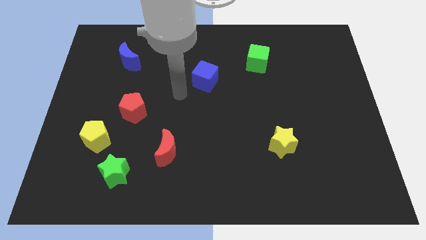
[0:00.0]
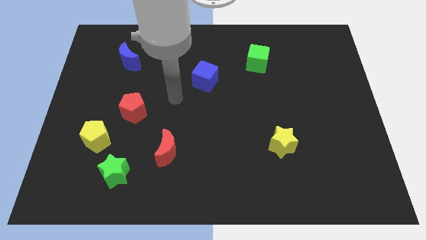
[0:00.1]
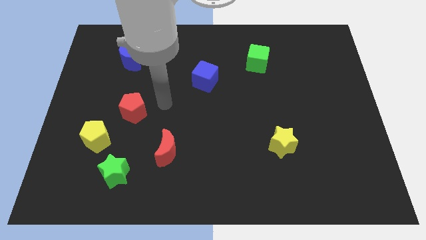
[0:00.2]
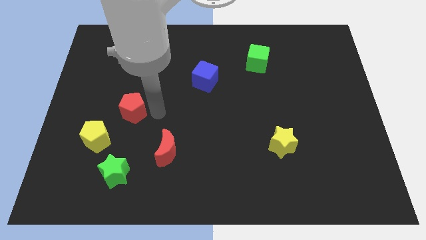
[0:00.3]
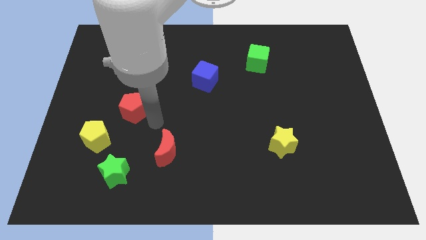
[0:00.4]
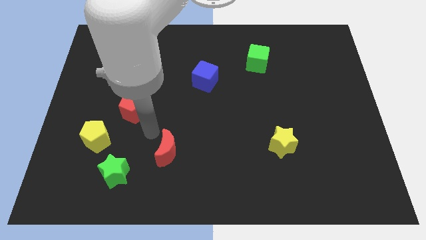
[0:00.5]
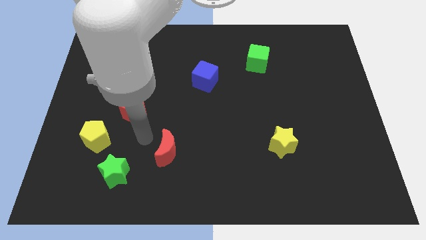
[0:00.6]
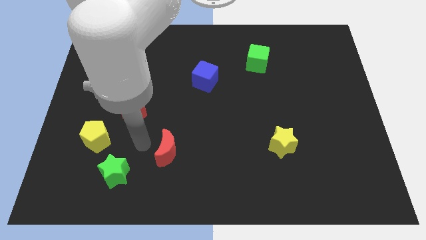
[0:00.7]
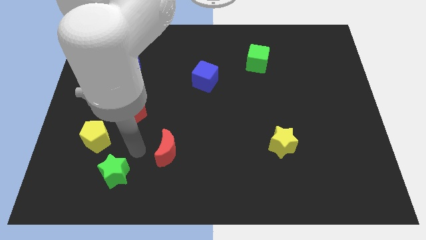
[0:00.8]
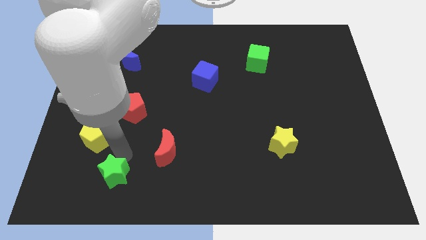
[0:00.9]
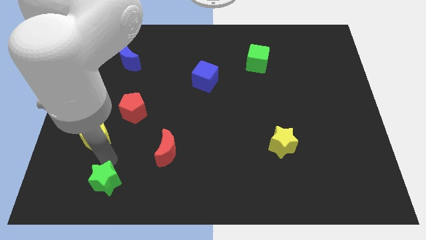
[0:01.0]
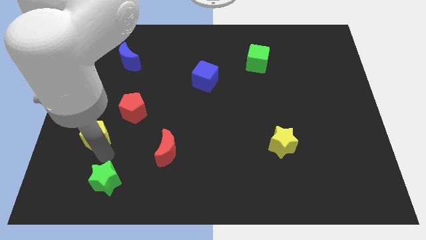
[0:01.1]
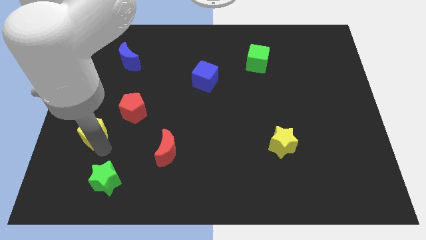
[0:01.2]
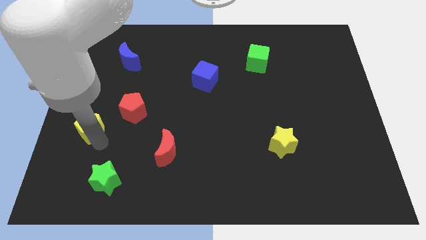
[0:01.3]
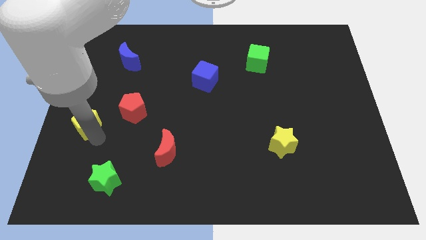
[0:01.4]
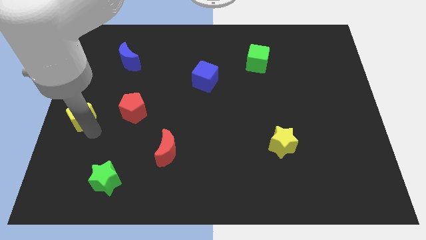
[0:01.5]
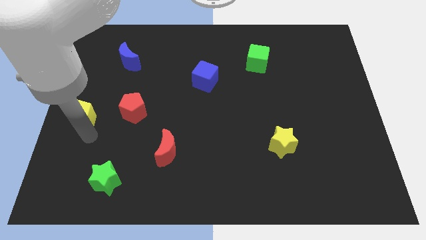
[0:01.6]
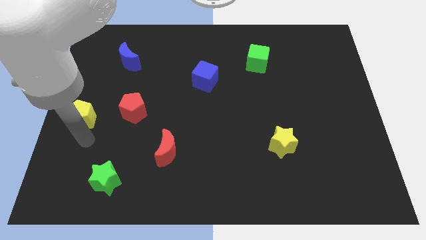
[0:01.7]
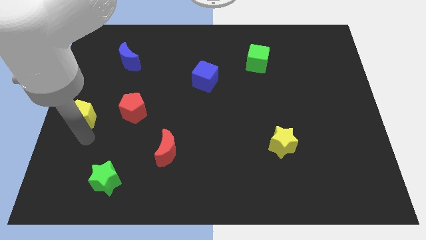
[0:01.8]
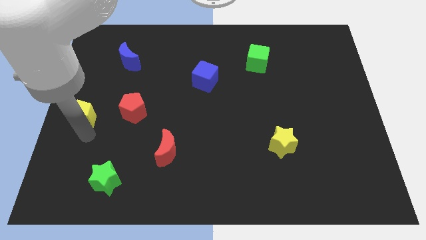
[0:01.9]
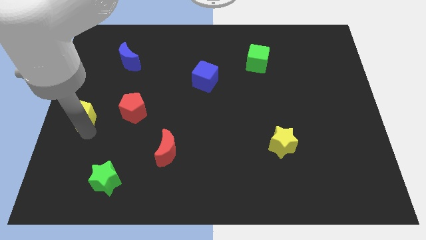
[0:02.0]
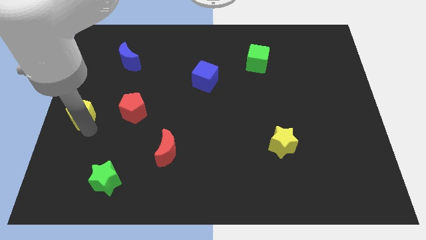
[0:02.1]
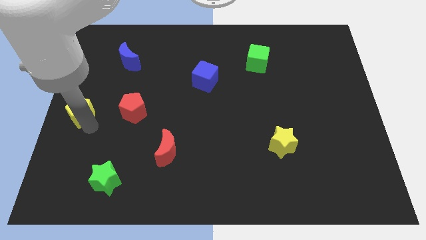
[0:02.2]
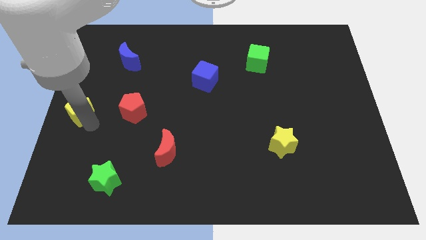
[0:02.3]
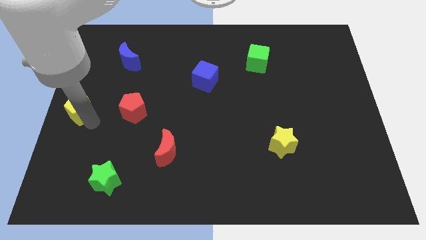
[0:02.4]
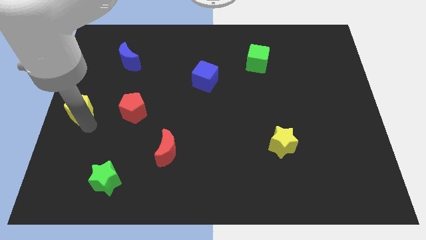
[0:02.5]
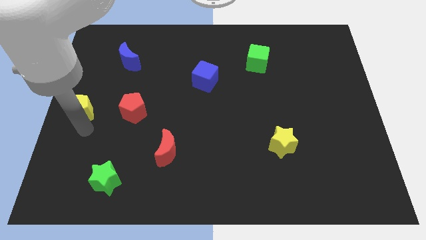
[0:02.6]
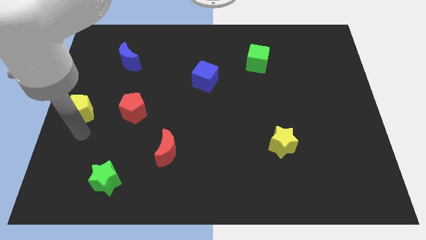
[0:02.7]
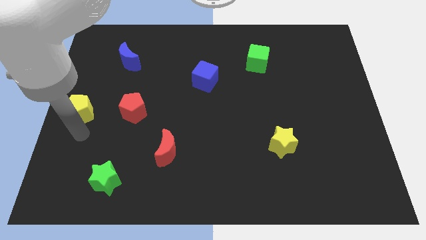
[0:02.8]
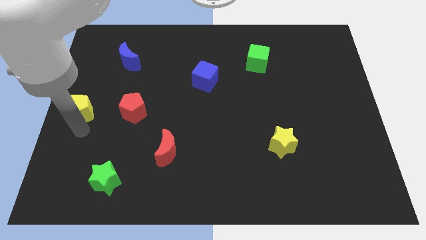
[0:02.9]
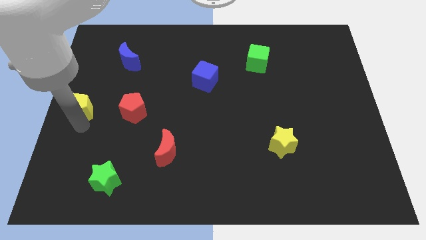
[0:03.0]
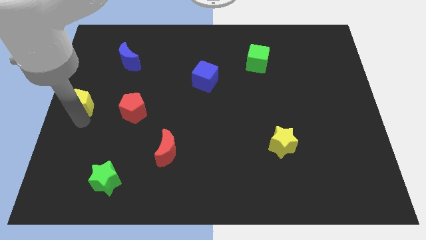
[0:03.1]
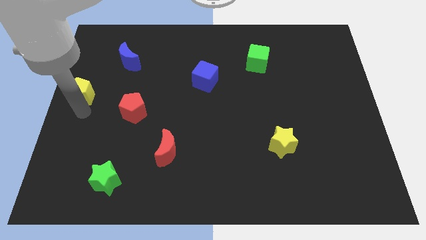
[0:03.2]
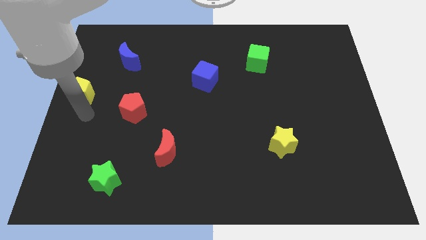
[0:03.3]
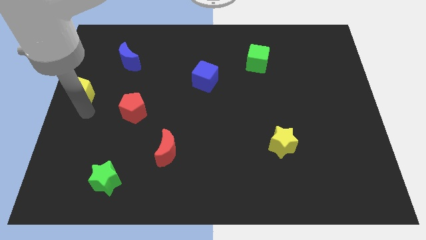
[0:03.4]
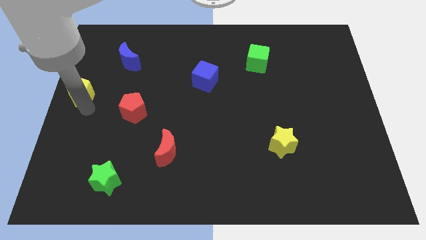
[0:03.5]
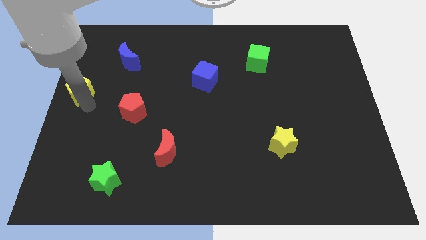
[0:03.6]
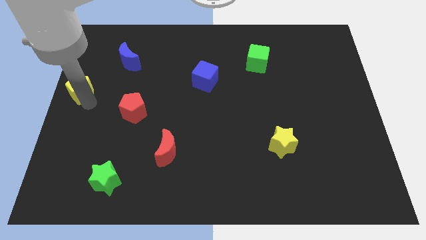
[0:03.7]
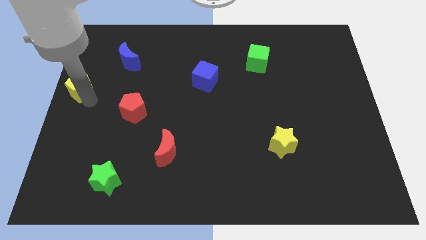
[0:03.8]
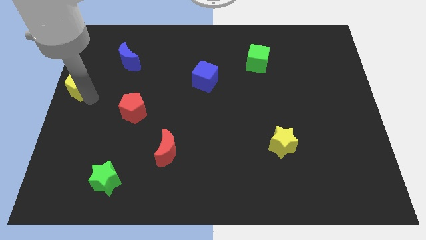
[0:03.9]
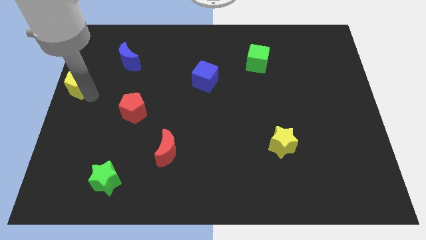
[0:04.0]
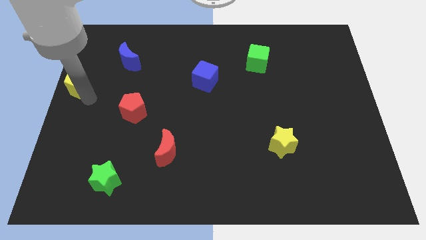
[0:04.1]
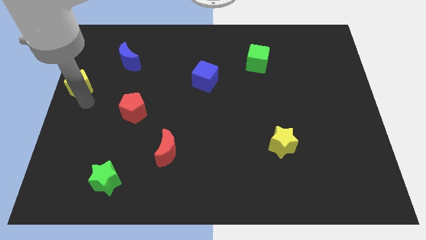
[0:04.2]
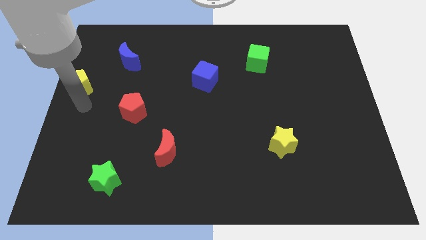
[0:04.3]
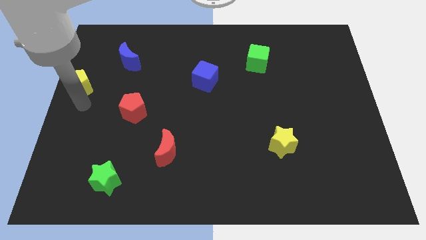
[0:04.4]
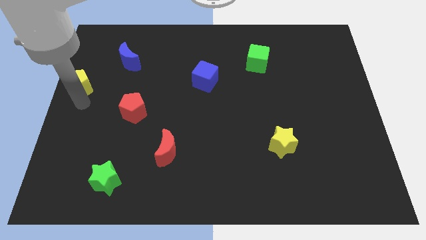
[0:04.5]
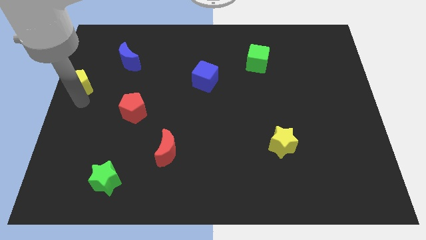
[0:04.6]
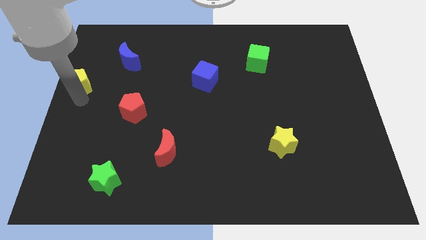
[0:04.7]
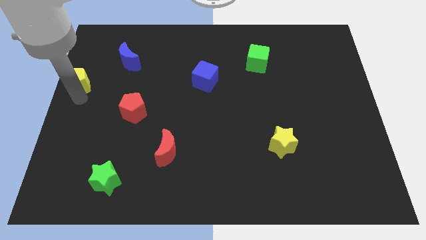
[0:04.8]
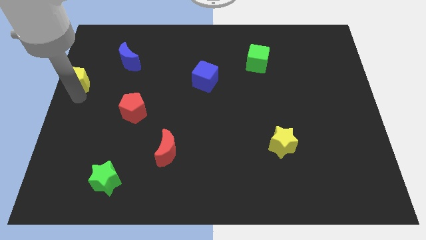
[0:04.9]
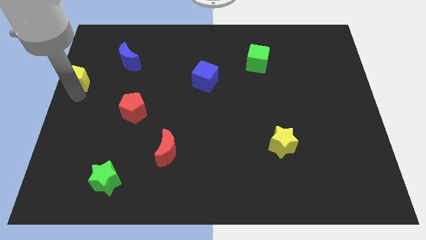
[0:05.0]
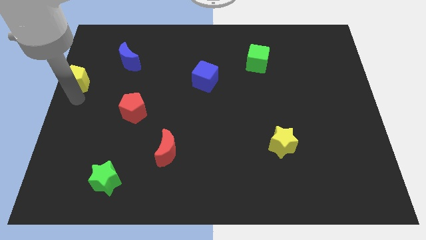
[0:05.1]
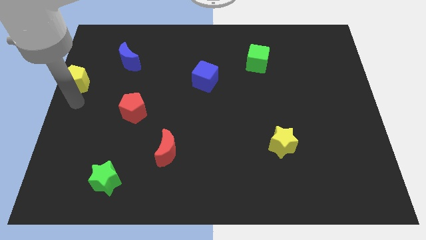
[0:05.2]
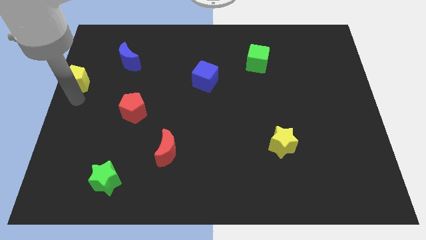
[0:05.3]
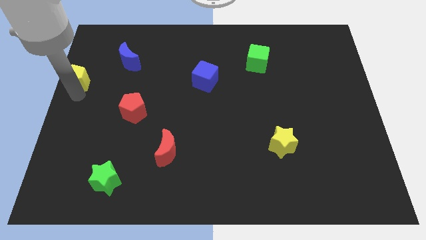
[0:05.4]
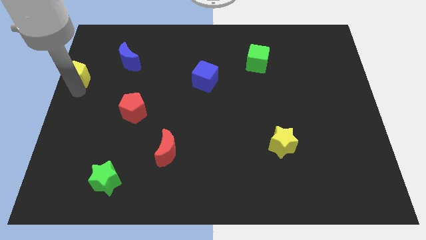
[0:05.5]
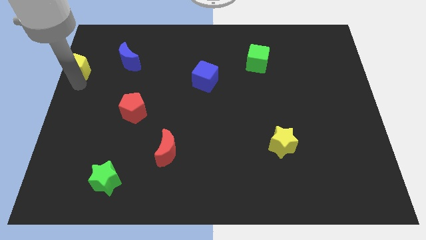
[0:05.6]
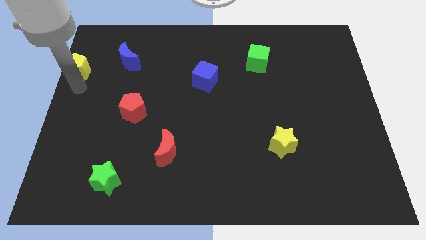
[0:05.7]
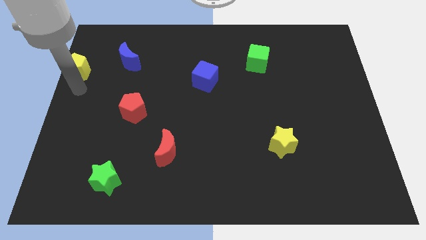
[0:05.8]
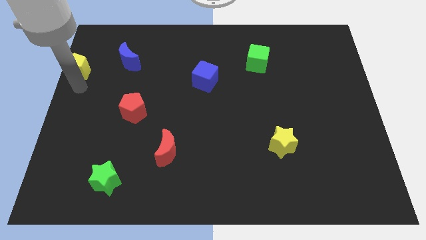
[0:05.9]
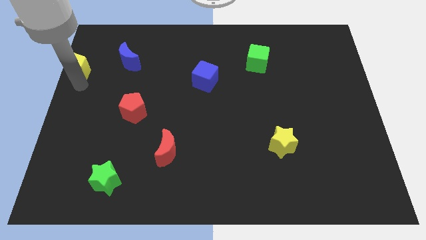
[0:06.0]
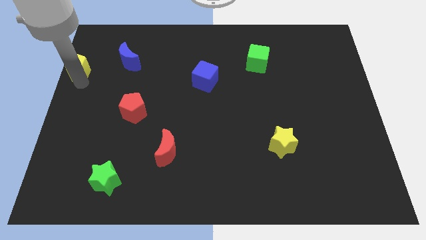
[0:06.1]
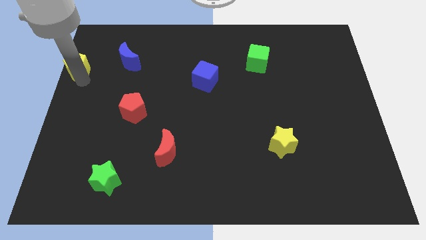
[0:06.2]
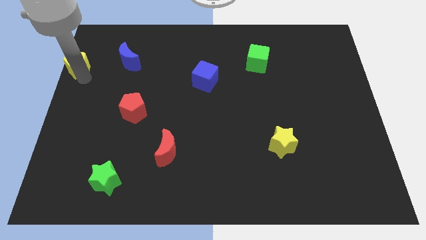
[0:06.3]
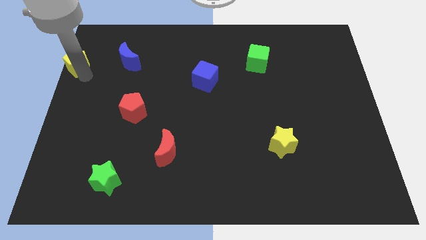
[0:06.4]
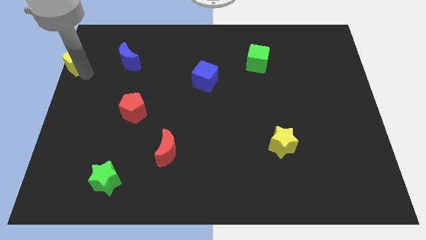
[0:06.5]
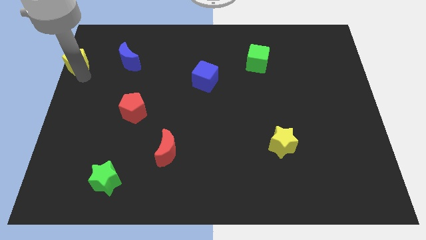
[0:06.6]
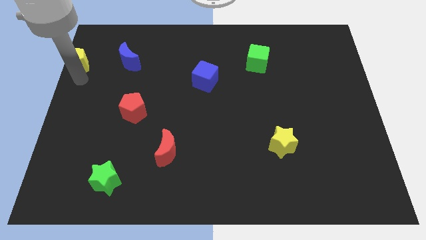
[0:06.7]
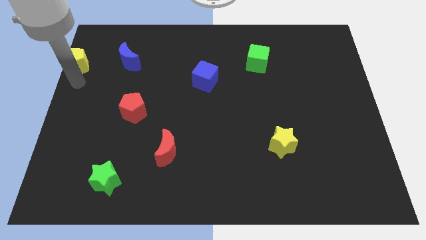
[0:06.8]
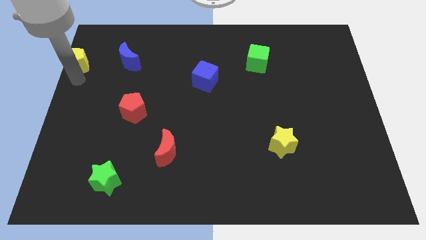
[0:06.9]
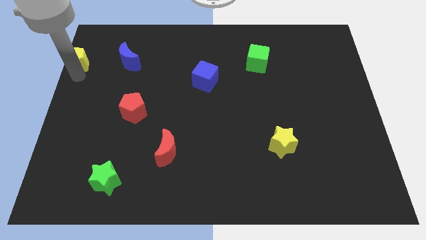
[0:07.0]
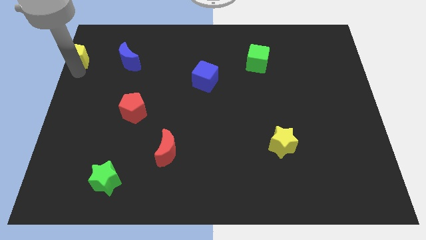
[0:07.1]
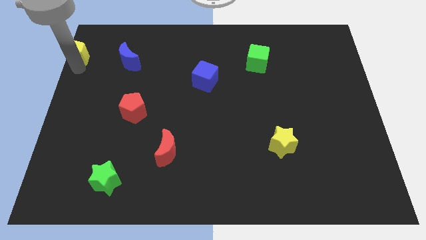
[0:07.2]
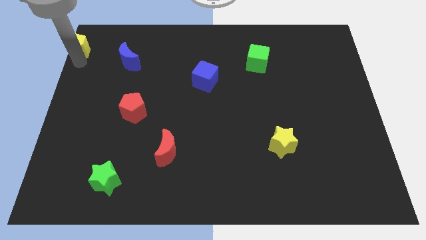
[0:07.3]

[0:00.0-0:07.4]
slide the yellow pentagon to the top left corner

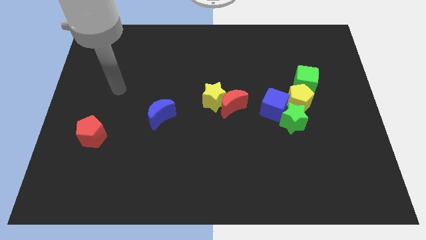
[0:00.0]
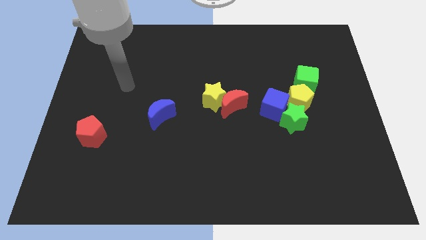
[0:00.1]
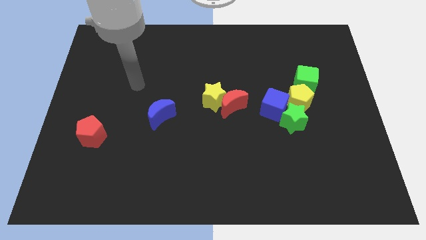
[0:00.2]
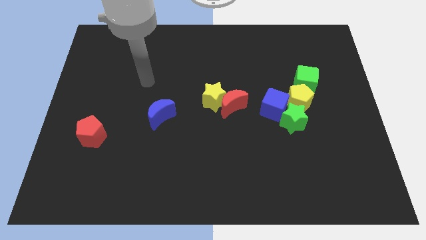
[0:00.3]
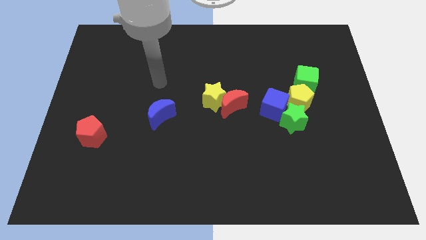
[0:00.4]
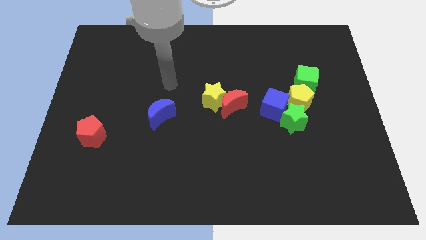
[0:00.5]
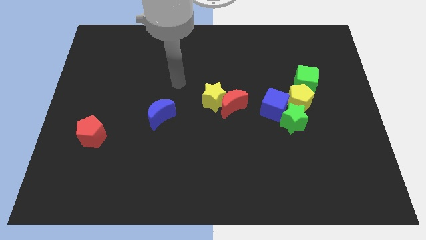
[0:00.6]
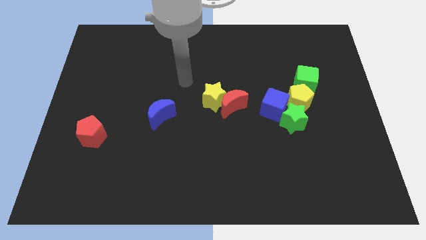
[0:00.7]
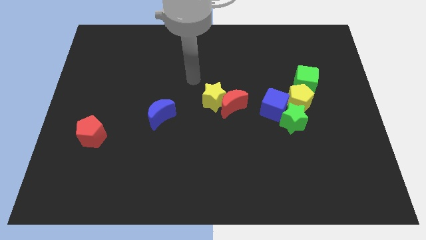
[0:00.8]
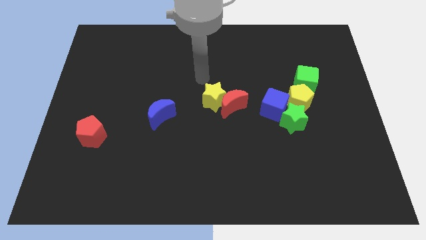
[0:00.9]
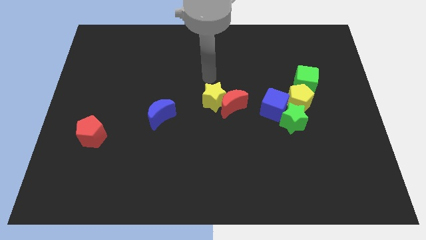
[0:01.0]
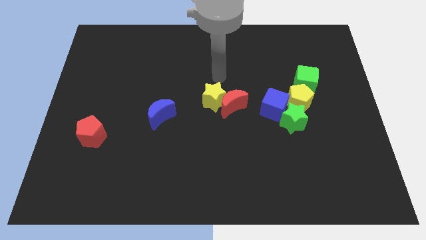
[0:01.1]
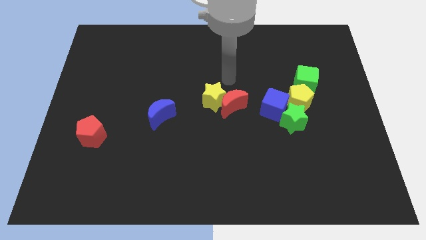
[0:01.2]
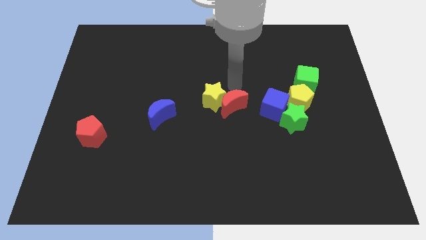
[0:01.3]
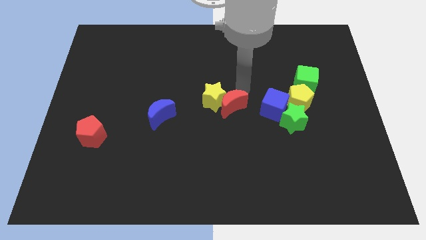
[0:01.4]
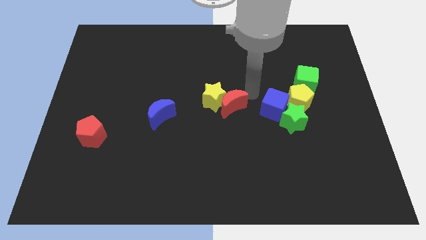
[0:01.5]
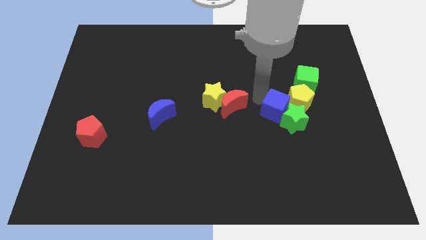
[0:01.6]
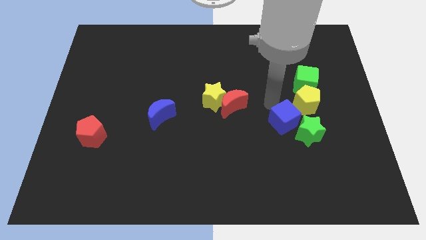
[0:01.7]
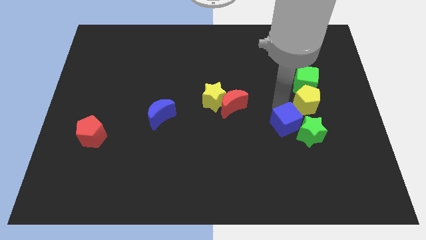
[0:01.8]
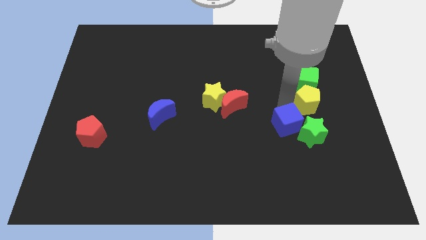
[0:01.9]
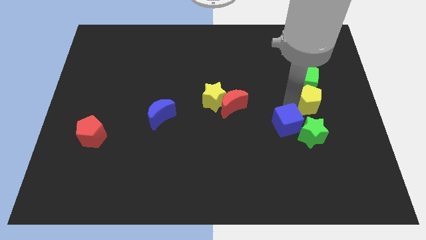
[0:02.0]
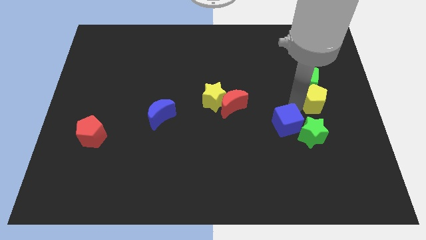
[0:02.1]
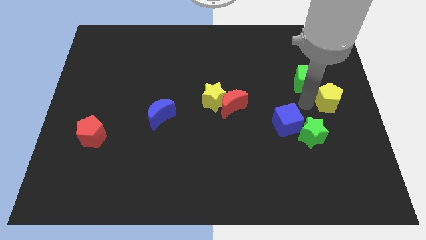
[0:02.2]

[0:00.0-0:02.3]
slide the yellow pentagon to the right side of the board
